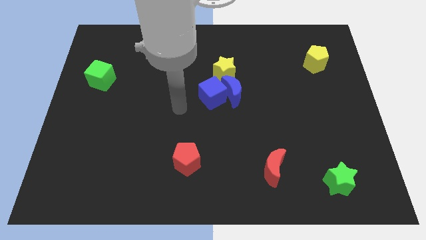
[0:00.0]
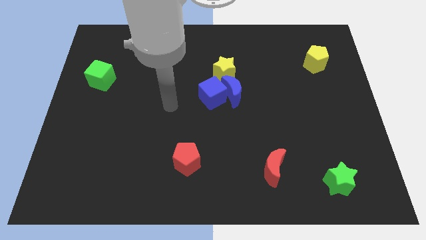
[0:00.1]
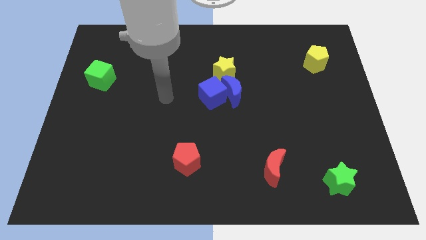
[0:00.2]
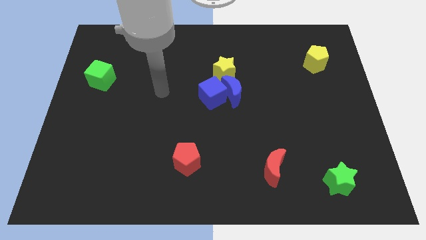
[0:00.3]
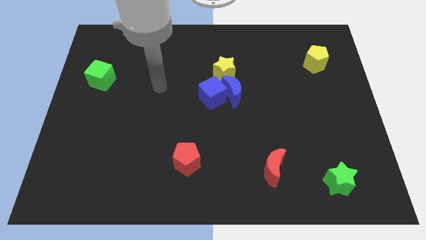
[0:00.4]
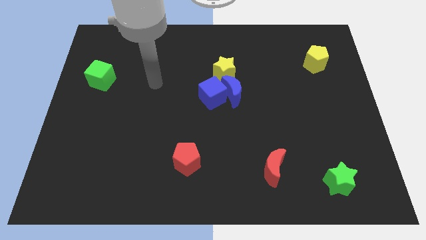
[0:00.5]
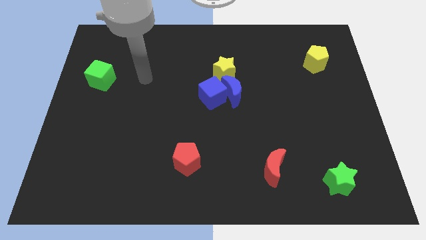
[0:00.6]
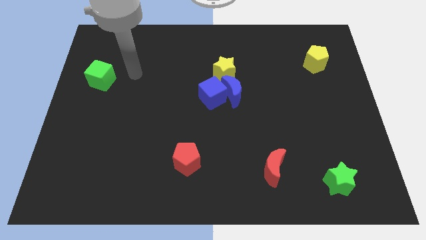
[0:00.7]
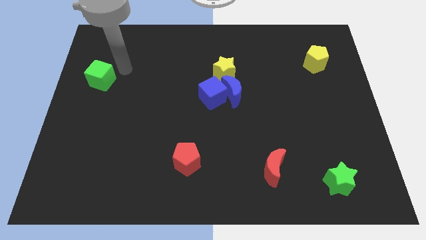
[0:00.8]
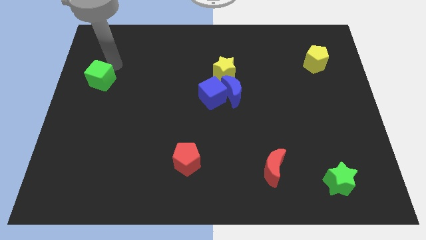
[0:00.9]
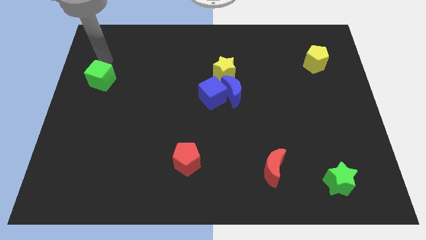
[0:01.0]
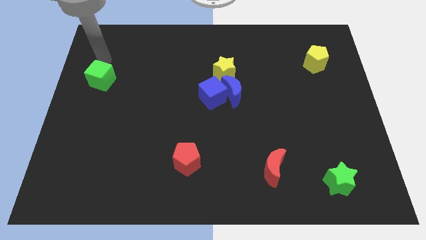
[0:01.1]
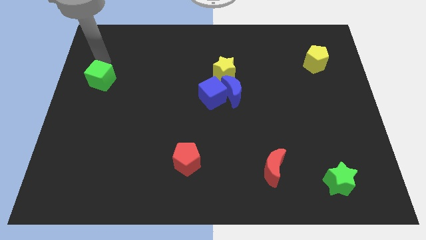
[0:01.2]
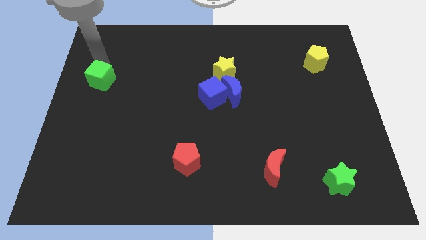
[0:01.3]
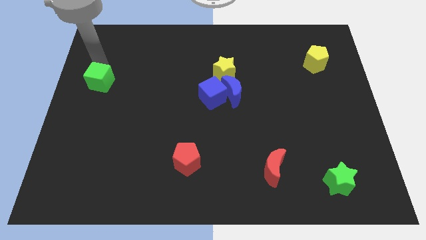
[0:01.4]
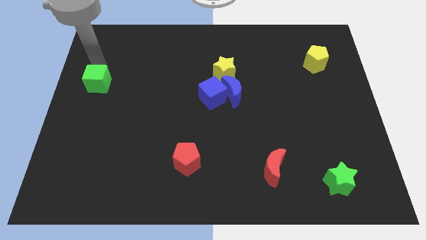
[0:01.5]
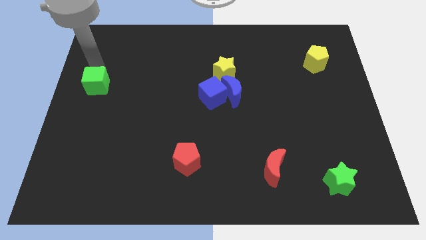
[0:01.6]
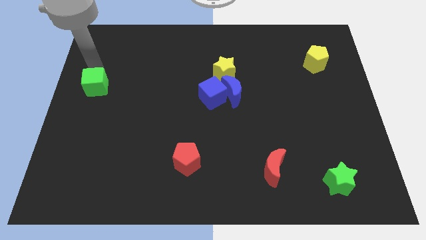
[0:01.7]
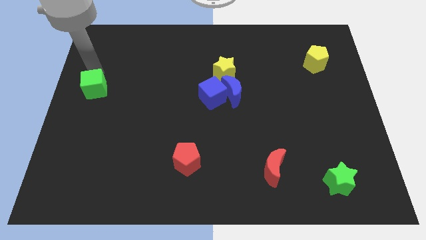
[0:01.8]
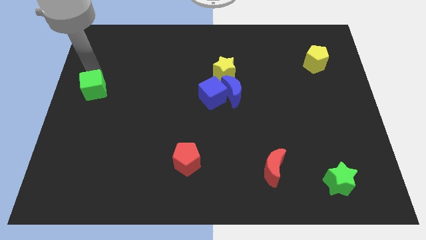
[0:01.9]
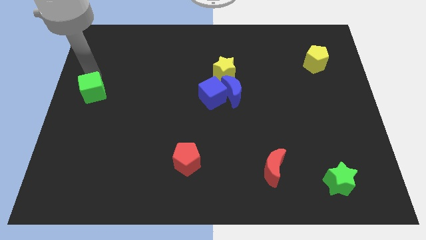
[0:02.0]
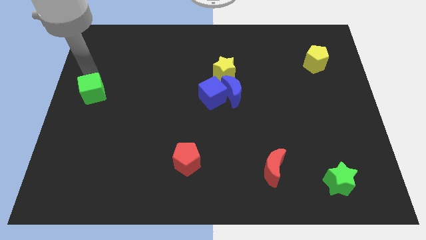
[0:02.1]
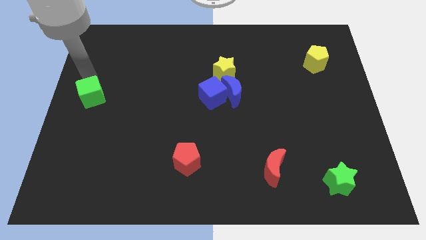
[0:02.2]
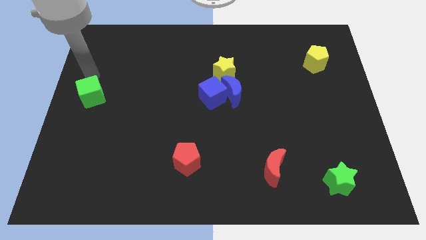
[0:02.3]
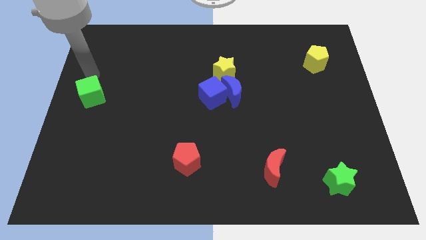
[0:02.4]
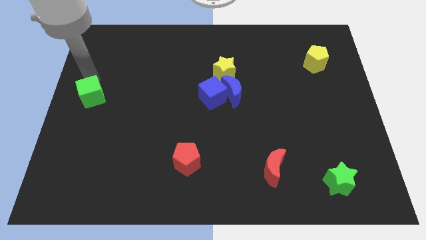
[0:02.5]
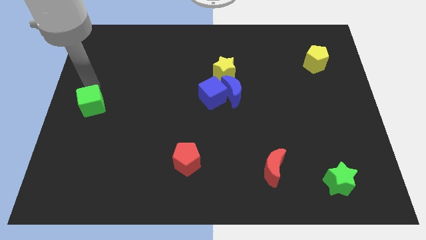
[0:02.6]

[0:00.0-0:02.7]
slightly move the green cube down

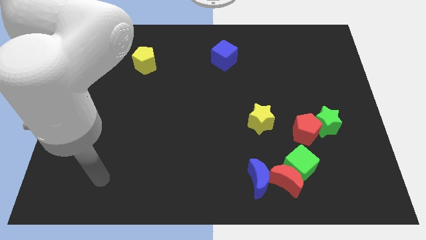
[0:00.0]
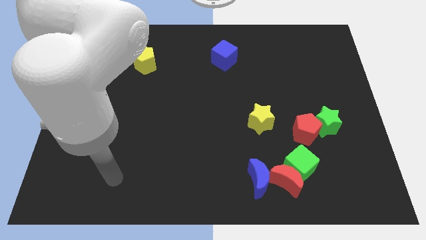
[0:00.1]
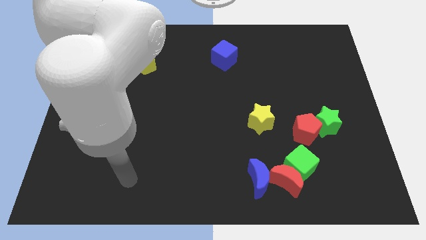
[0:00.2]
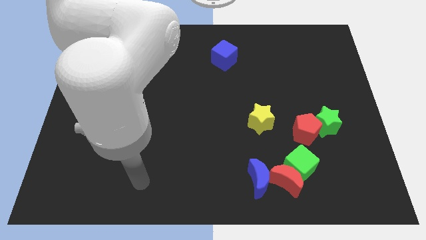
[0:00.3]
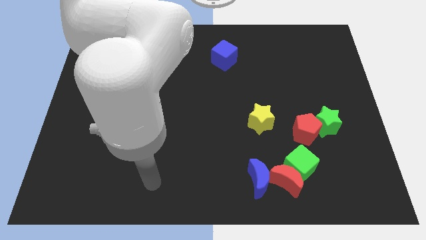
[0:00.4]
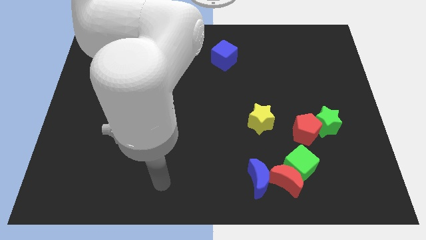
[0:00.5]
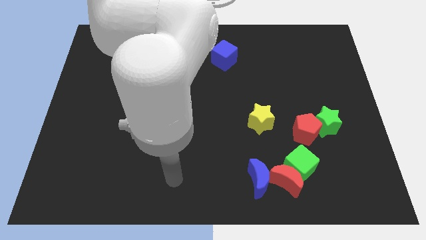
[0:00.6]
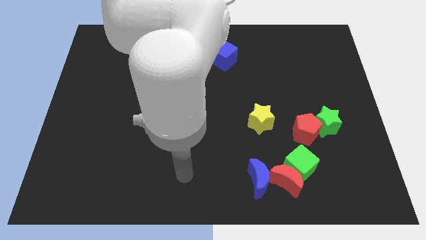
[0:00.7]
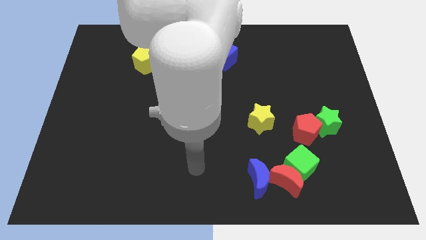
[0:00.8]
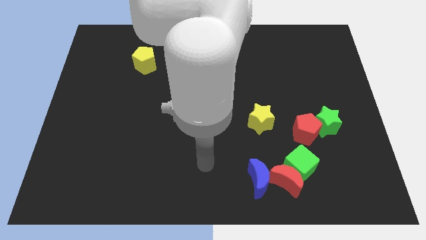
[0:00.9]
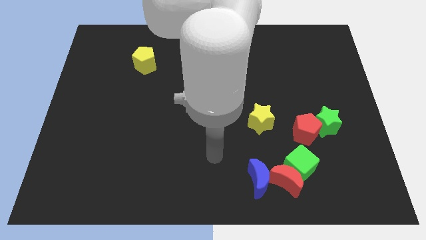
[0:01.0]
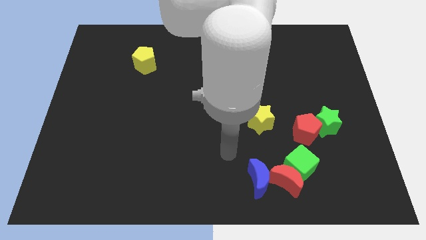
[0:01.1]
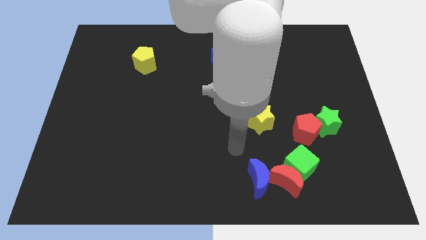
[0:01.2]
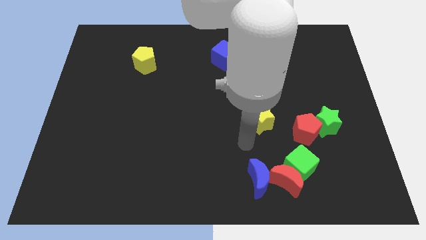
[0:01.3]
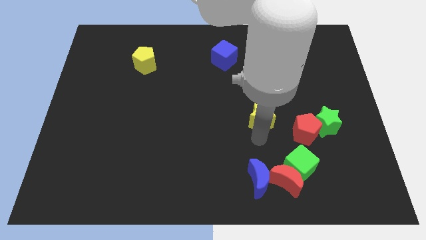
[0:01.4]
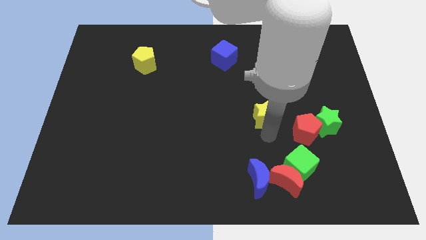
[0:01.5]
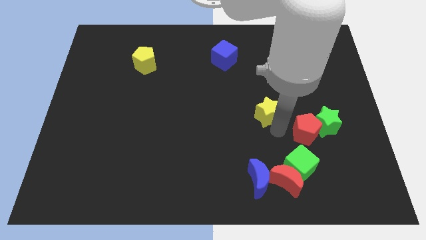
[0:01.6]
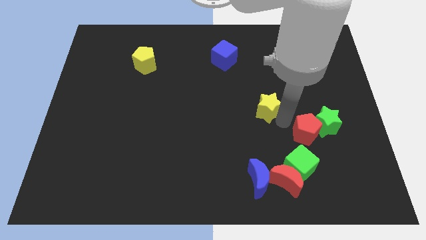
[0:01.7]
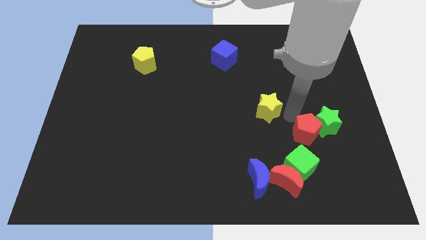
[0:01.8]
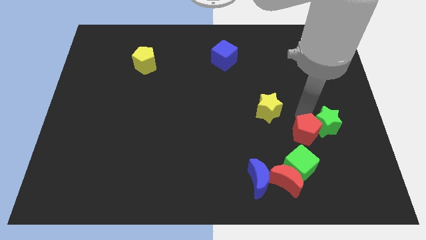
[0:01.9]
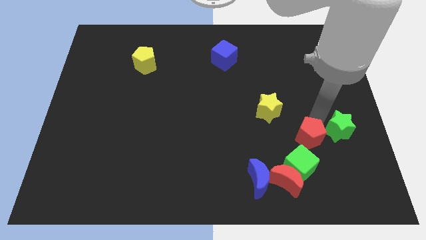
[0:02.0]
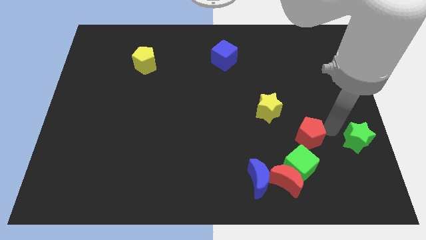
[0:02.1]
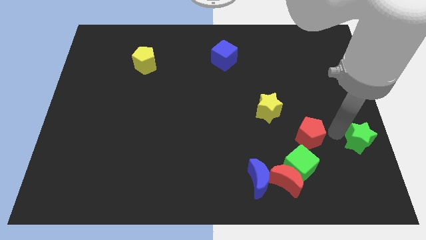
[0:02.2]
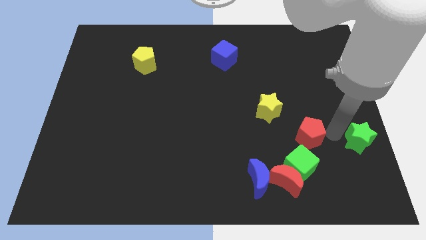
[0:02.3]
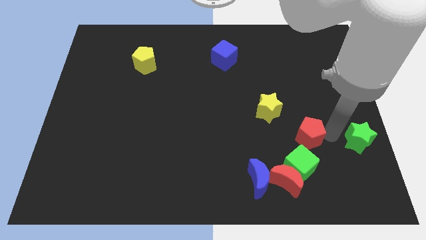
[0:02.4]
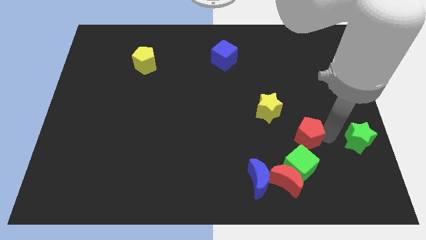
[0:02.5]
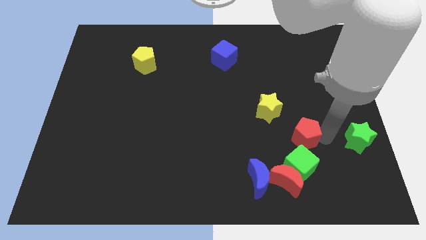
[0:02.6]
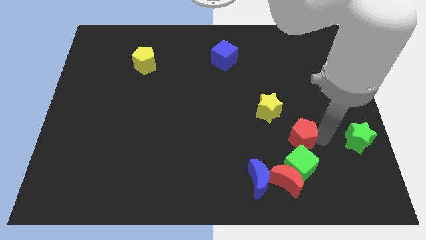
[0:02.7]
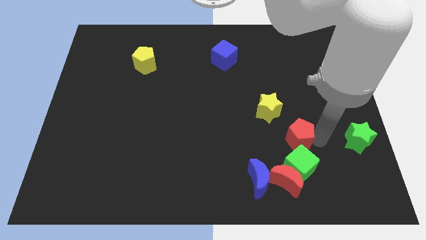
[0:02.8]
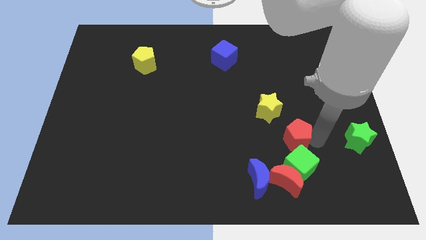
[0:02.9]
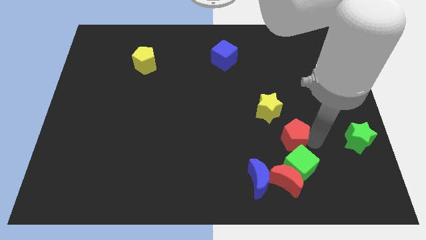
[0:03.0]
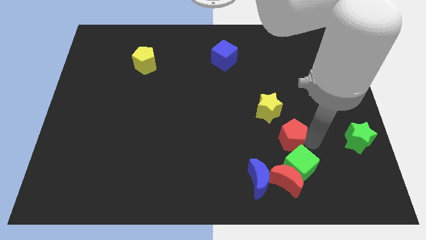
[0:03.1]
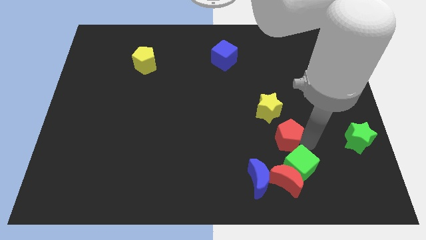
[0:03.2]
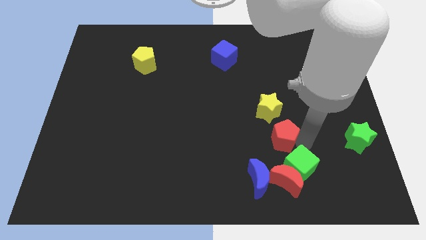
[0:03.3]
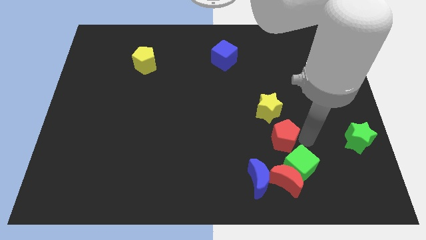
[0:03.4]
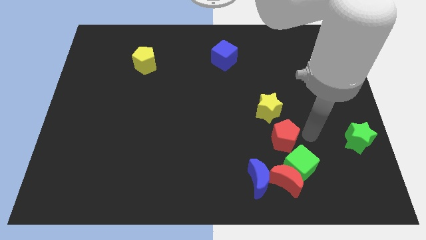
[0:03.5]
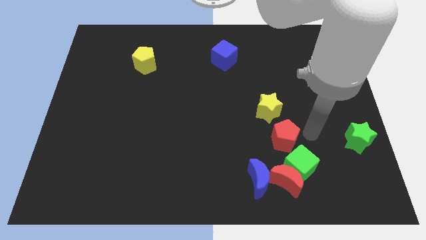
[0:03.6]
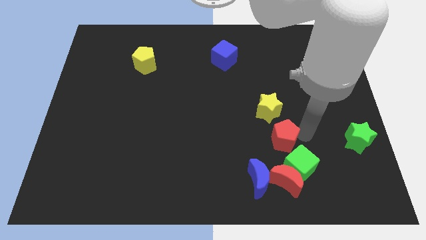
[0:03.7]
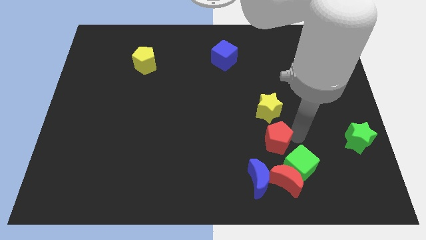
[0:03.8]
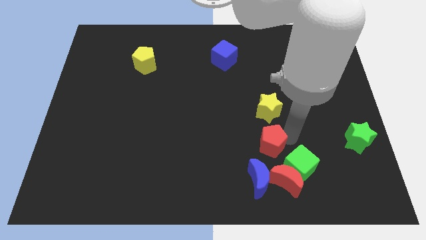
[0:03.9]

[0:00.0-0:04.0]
move the red pentagon left a little

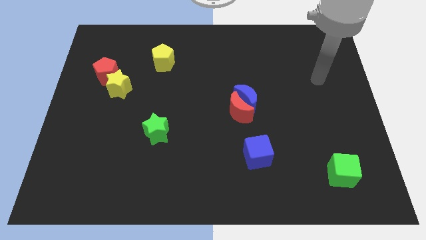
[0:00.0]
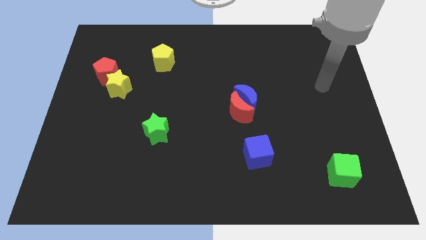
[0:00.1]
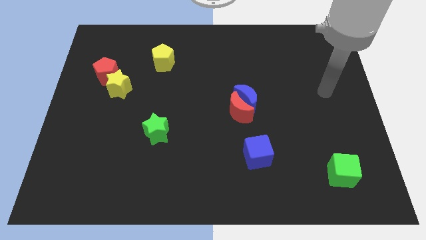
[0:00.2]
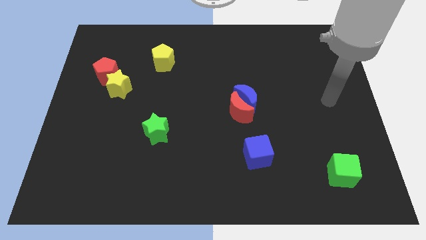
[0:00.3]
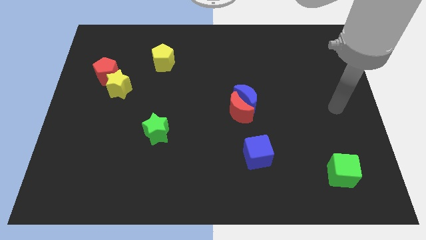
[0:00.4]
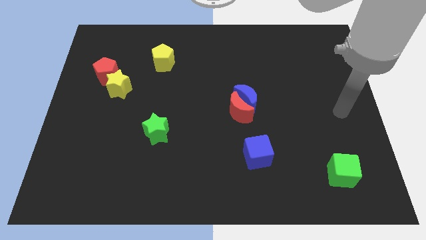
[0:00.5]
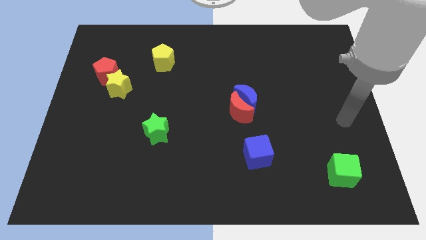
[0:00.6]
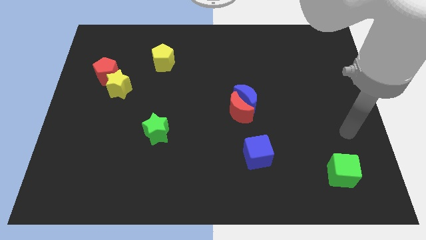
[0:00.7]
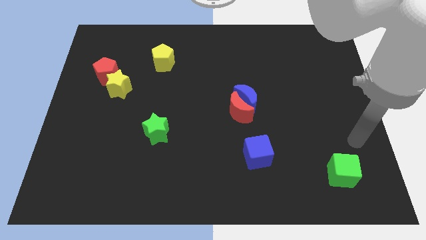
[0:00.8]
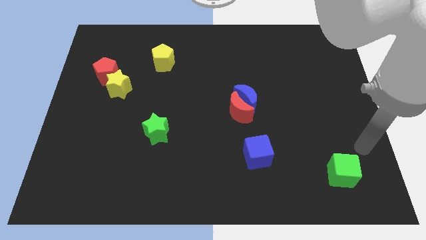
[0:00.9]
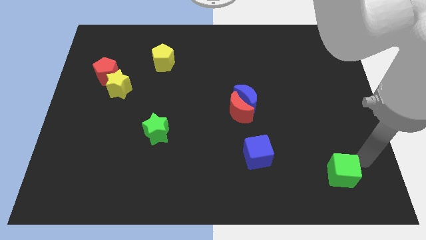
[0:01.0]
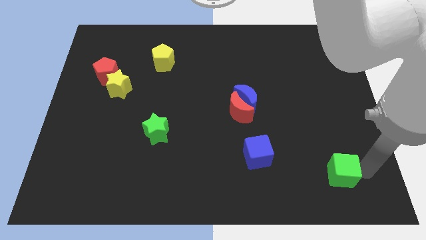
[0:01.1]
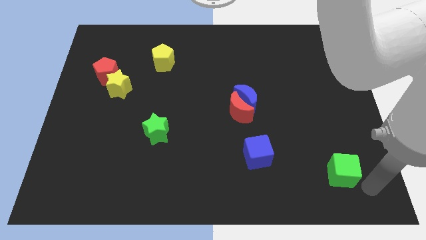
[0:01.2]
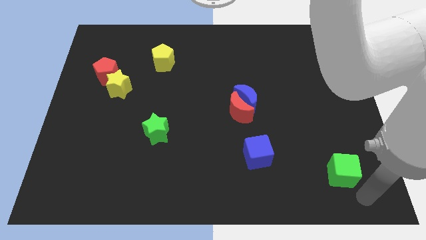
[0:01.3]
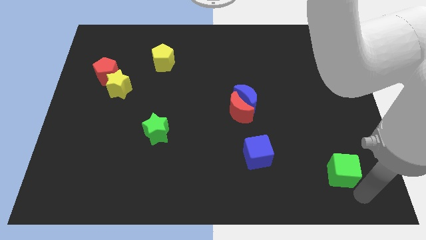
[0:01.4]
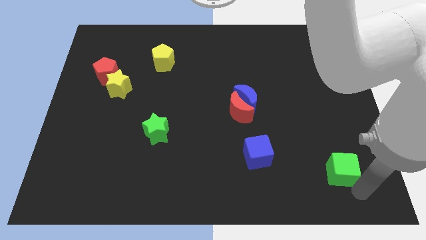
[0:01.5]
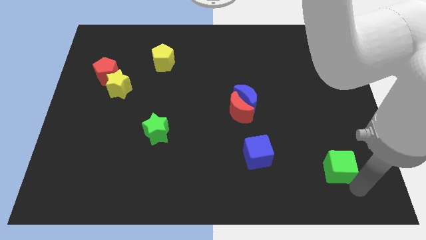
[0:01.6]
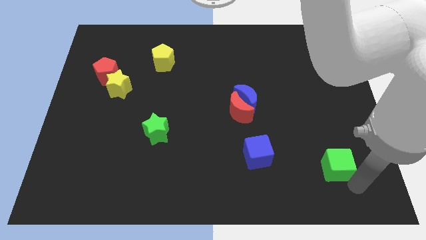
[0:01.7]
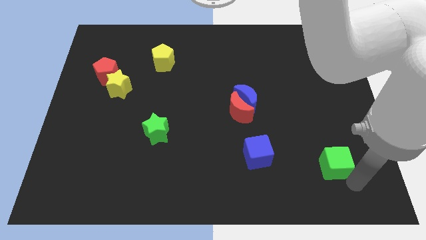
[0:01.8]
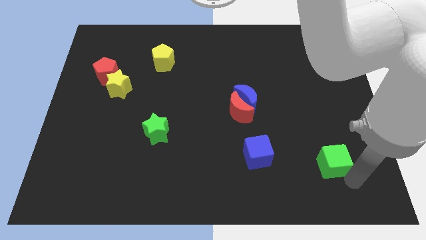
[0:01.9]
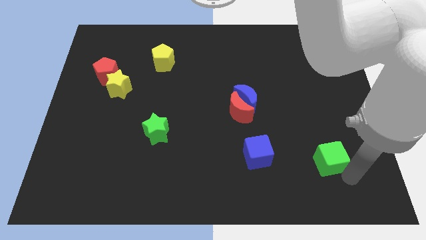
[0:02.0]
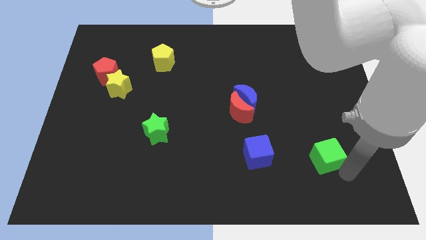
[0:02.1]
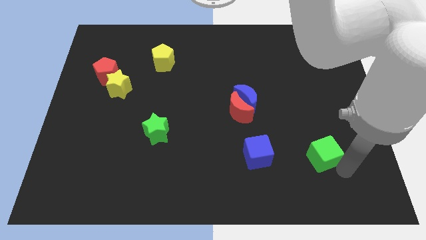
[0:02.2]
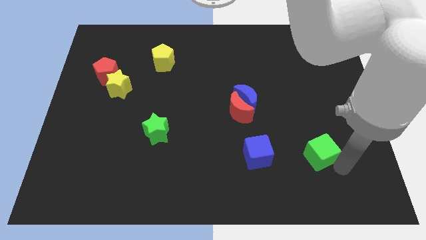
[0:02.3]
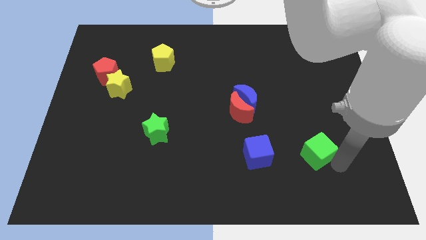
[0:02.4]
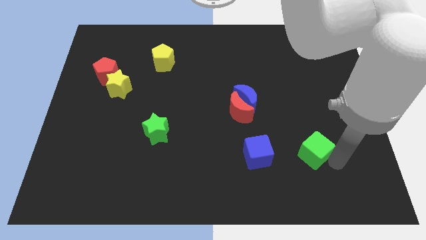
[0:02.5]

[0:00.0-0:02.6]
push the green cube up and left a little bit
